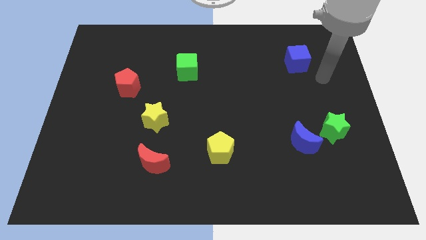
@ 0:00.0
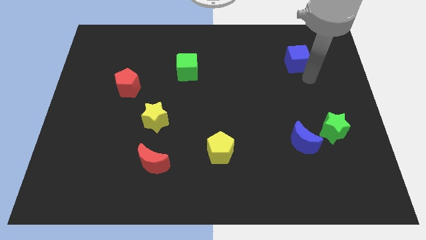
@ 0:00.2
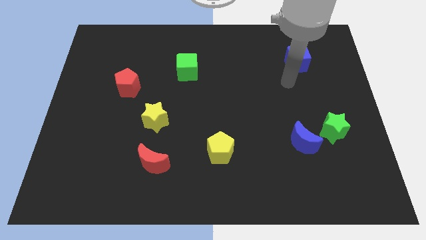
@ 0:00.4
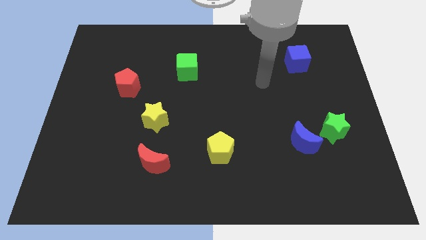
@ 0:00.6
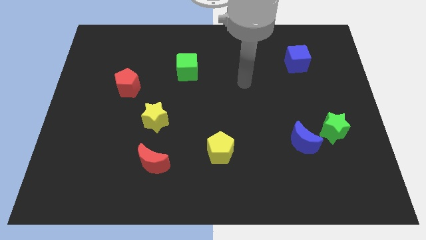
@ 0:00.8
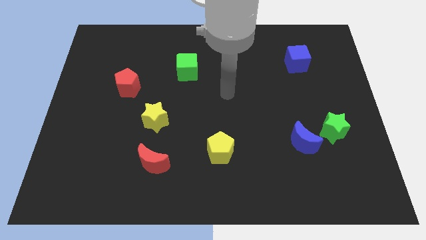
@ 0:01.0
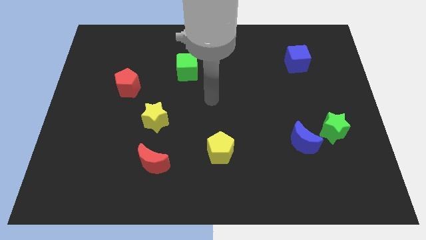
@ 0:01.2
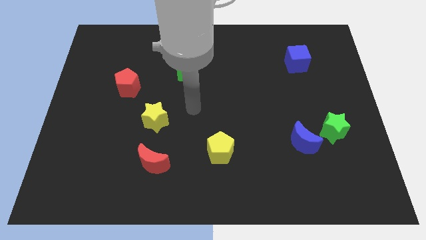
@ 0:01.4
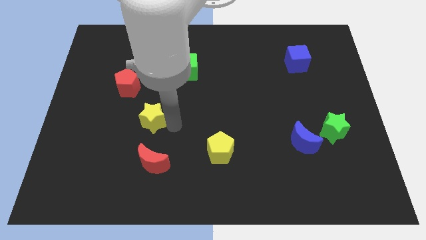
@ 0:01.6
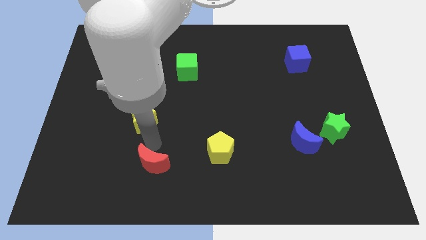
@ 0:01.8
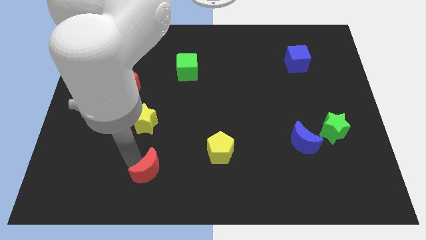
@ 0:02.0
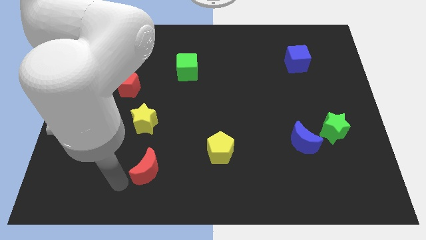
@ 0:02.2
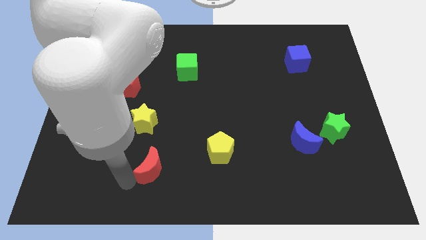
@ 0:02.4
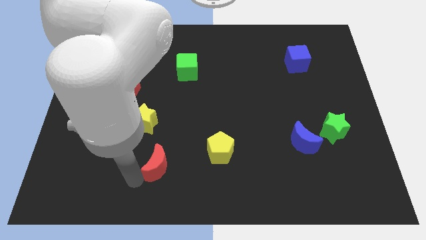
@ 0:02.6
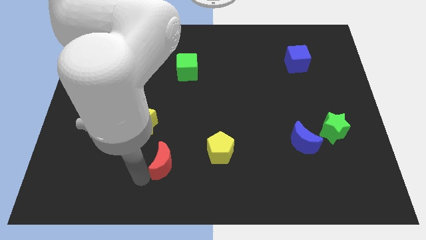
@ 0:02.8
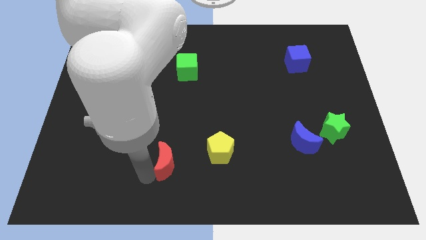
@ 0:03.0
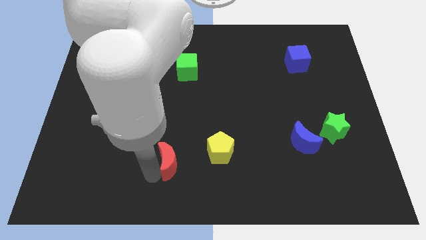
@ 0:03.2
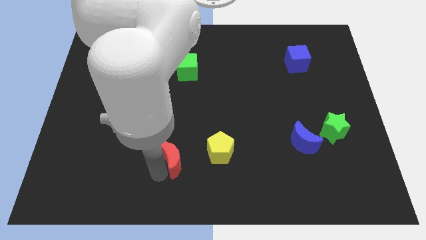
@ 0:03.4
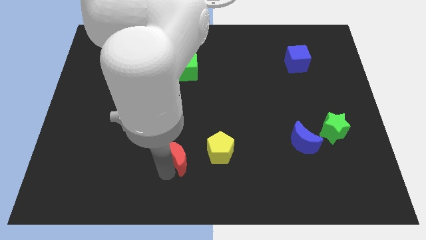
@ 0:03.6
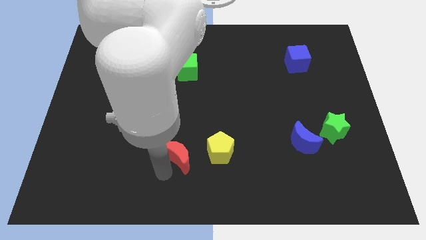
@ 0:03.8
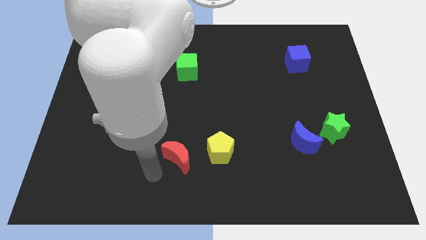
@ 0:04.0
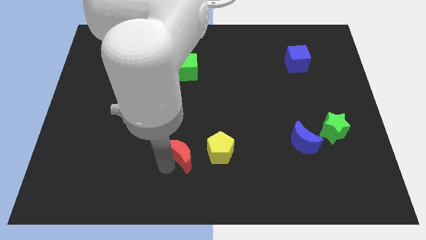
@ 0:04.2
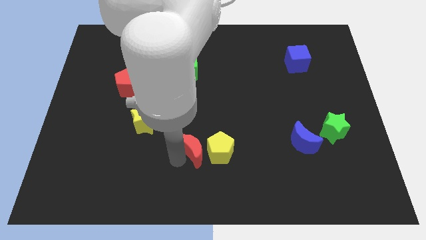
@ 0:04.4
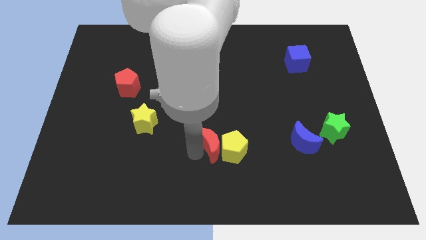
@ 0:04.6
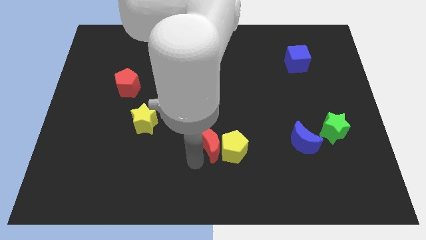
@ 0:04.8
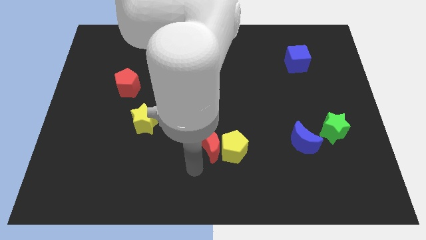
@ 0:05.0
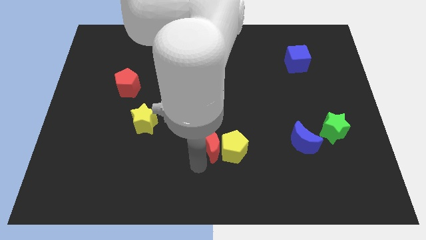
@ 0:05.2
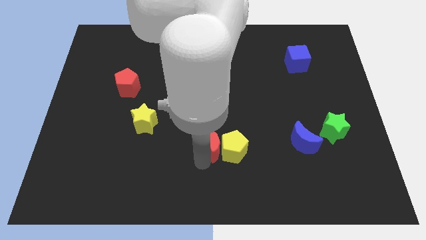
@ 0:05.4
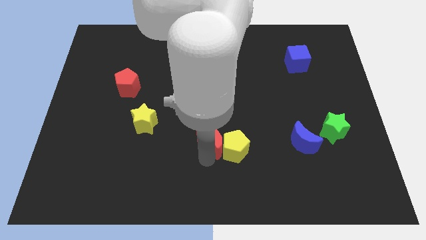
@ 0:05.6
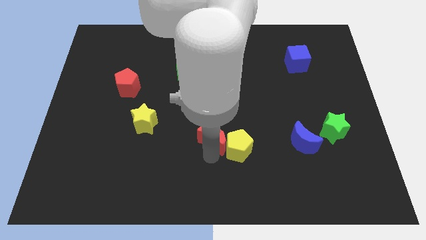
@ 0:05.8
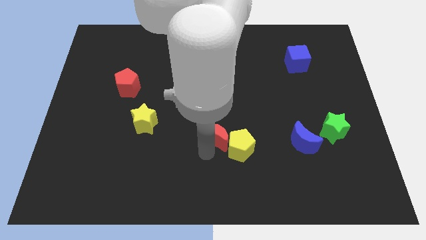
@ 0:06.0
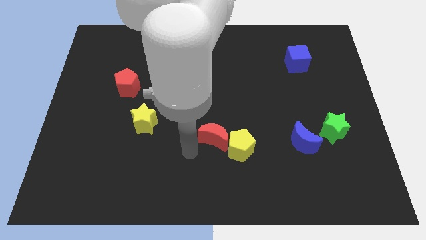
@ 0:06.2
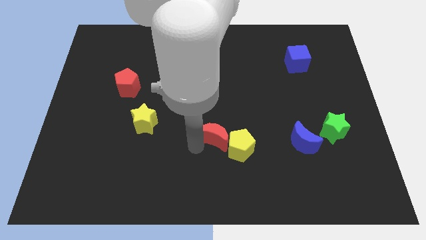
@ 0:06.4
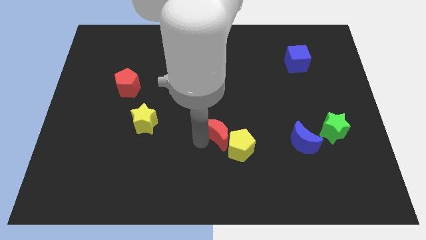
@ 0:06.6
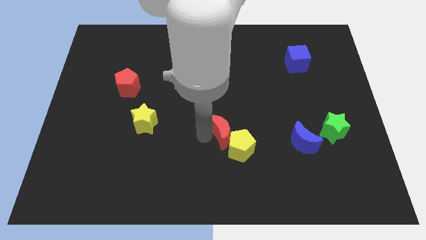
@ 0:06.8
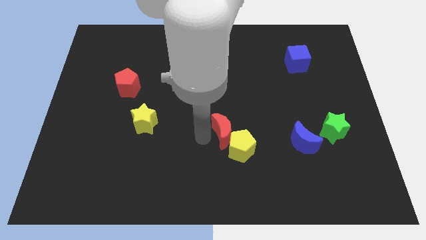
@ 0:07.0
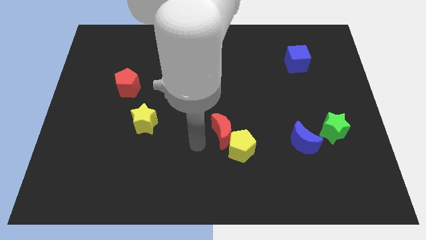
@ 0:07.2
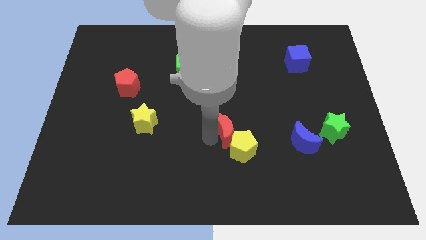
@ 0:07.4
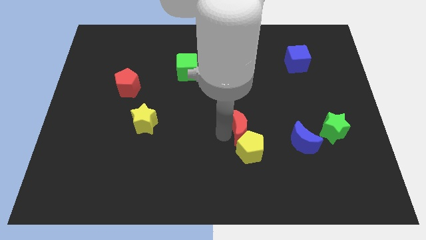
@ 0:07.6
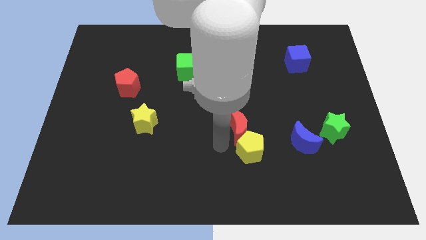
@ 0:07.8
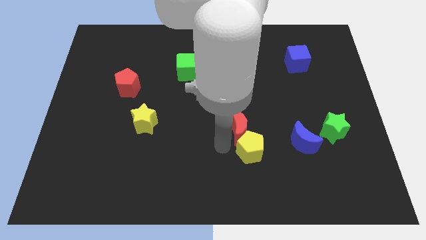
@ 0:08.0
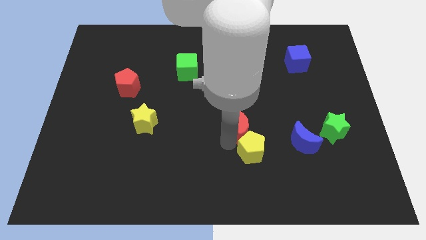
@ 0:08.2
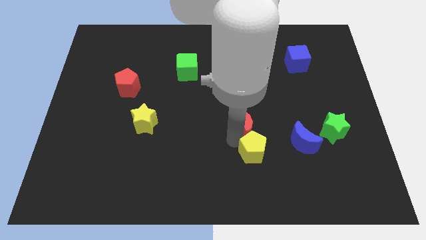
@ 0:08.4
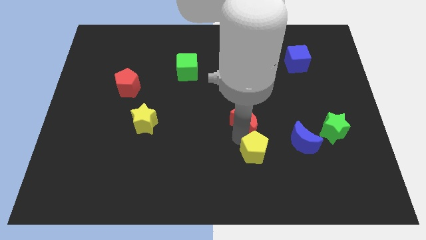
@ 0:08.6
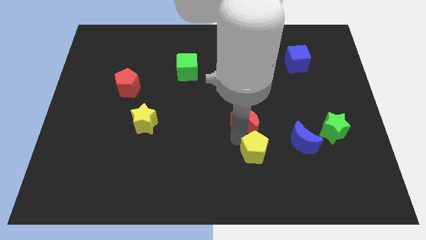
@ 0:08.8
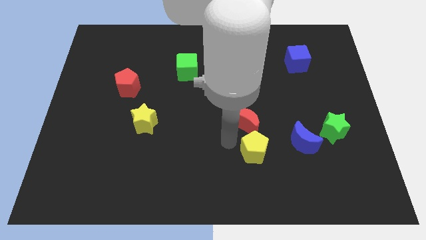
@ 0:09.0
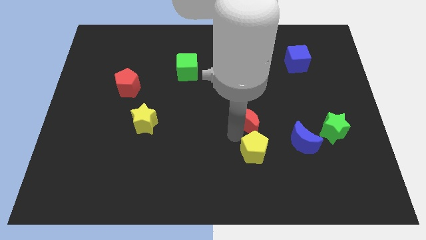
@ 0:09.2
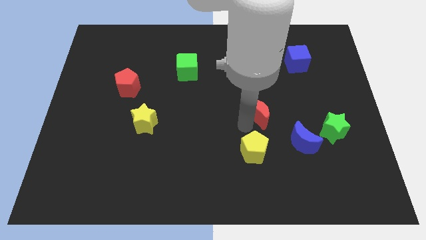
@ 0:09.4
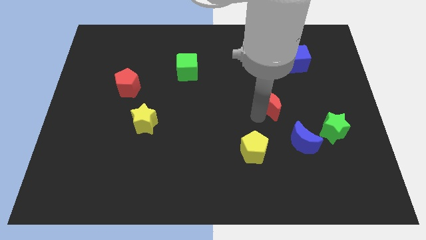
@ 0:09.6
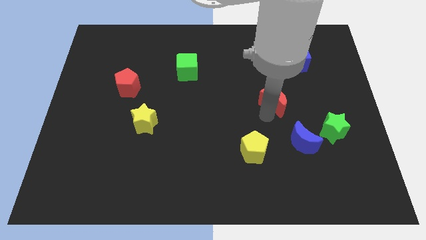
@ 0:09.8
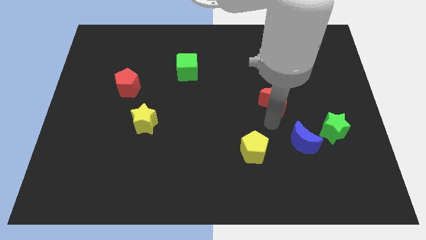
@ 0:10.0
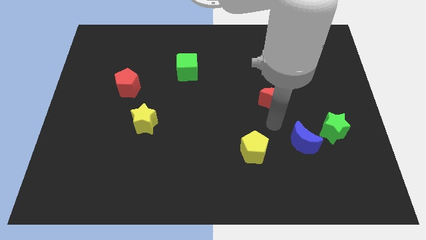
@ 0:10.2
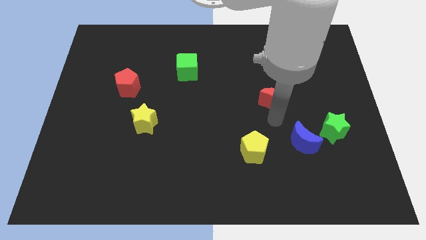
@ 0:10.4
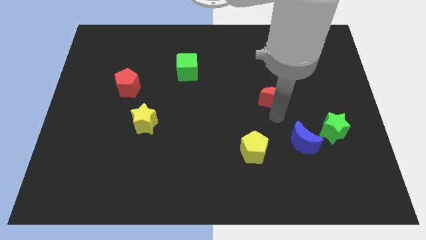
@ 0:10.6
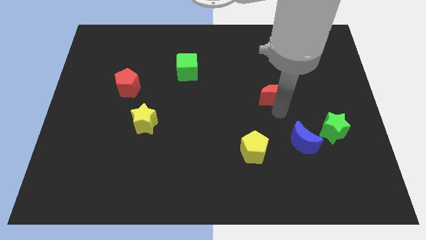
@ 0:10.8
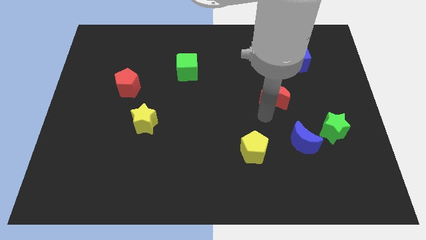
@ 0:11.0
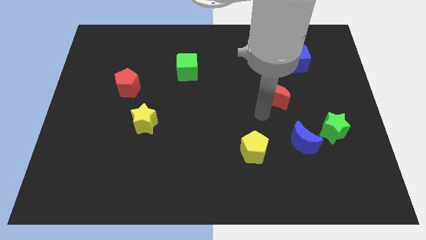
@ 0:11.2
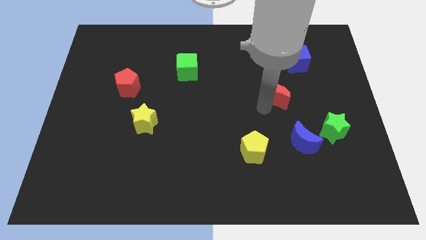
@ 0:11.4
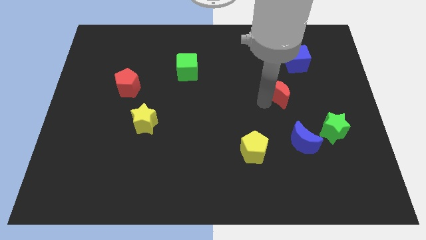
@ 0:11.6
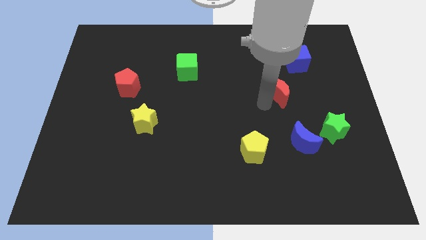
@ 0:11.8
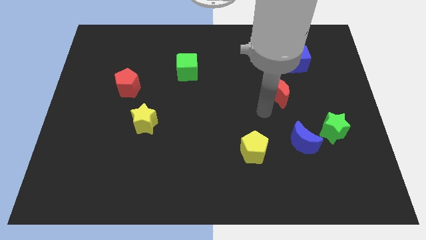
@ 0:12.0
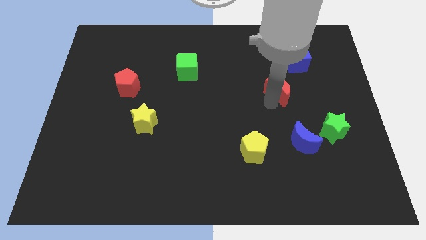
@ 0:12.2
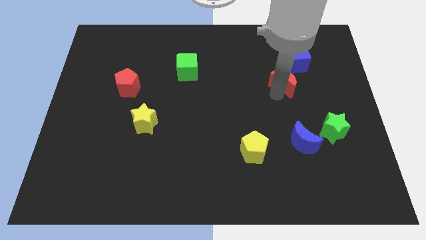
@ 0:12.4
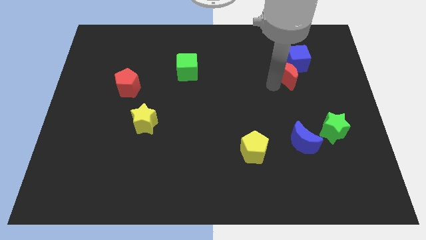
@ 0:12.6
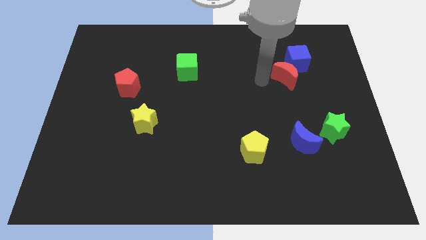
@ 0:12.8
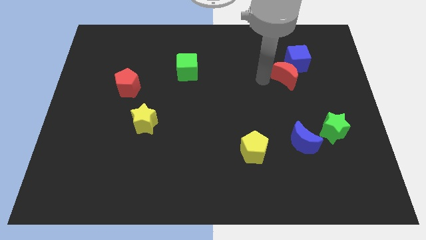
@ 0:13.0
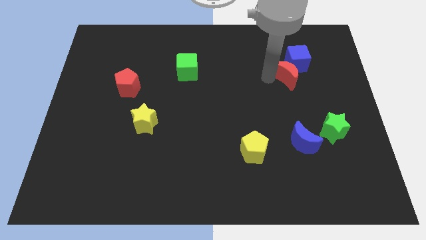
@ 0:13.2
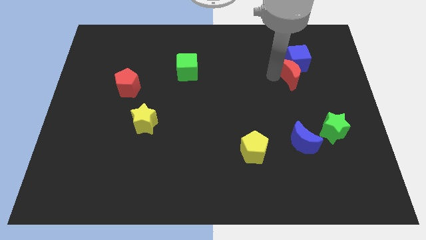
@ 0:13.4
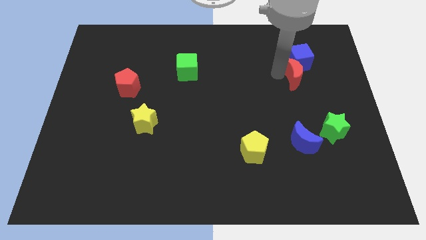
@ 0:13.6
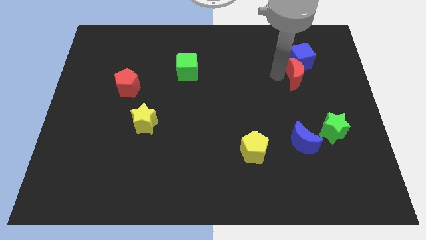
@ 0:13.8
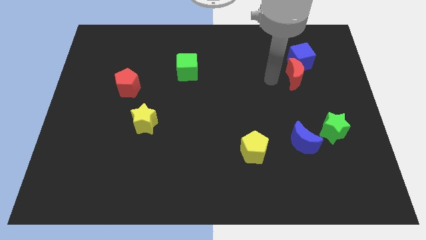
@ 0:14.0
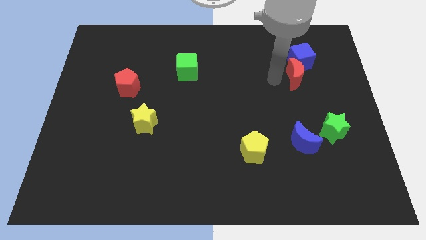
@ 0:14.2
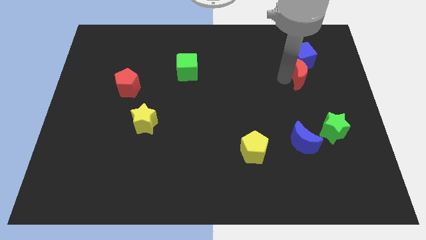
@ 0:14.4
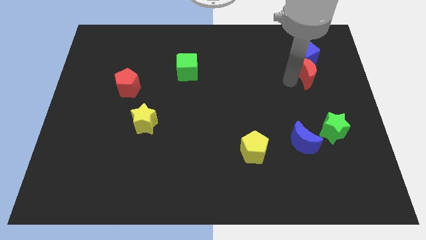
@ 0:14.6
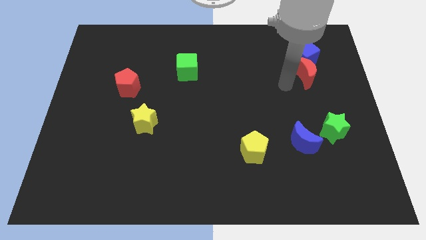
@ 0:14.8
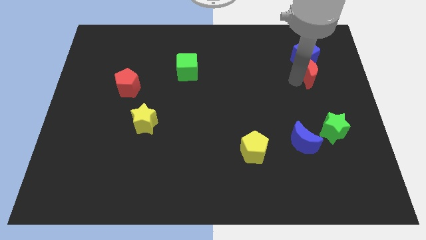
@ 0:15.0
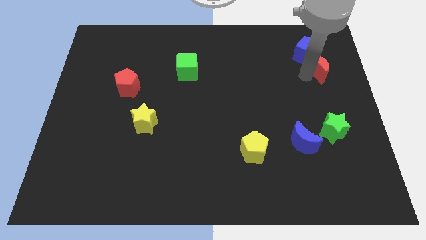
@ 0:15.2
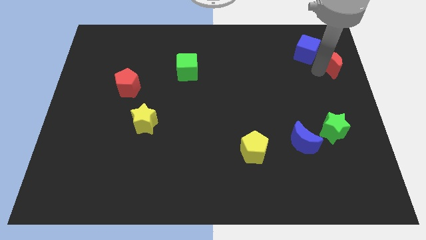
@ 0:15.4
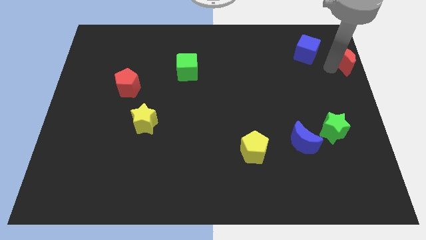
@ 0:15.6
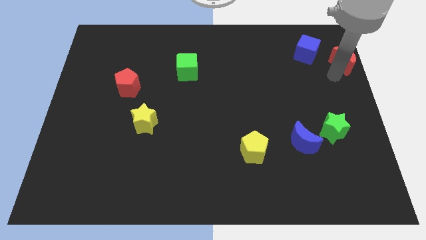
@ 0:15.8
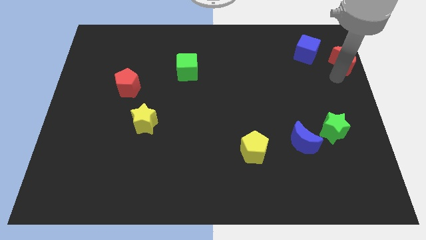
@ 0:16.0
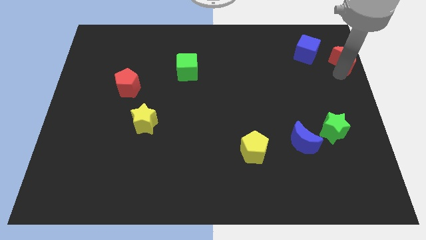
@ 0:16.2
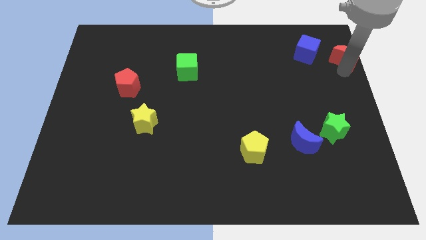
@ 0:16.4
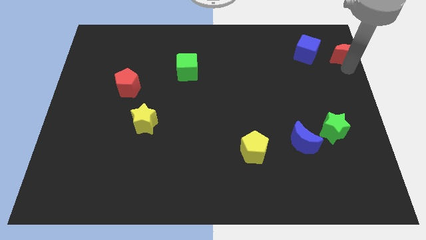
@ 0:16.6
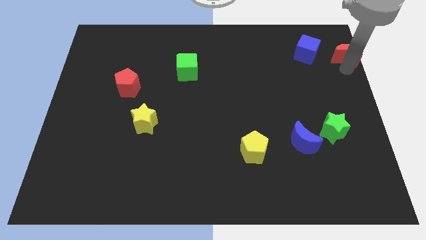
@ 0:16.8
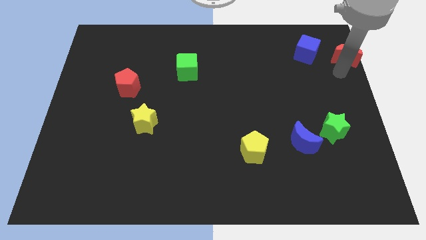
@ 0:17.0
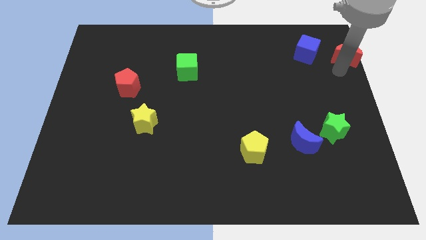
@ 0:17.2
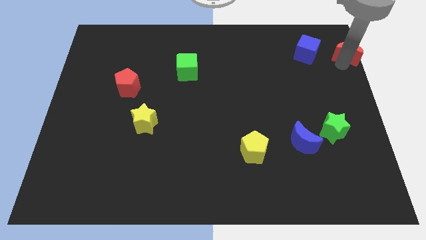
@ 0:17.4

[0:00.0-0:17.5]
move the red moon to the top right of the board
